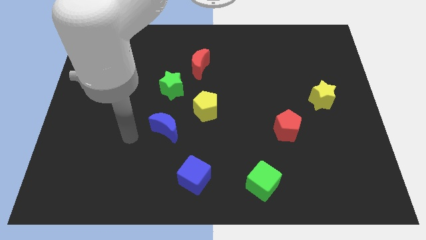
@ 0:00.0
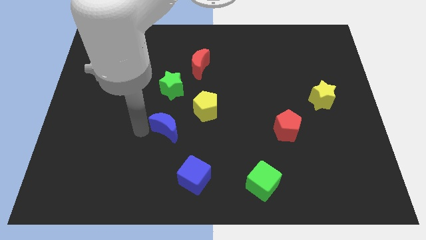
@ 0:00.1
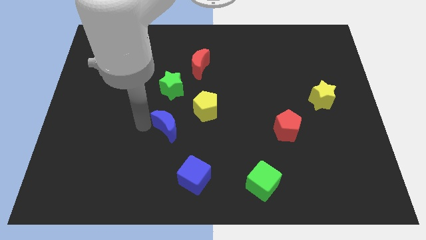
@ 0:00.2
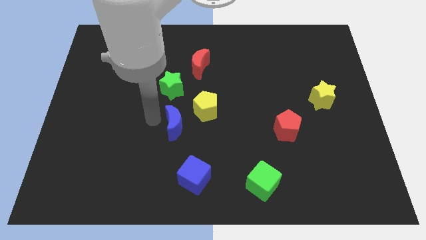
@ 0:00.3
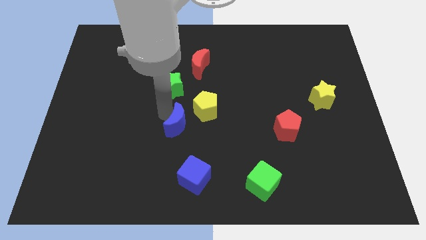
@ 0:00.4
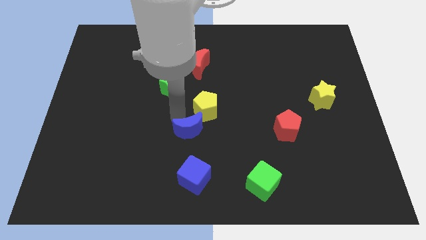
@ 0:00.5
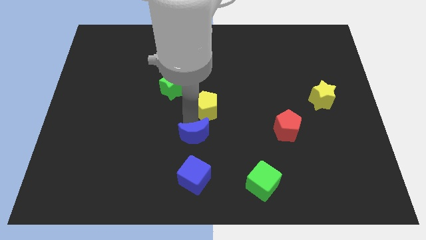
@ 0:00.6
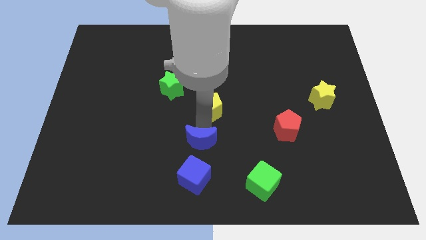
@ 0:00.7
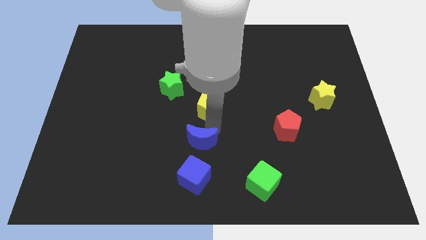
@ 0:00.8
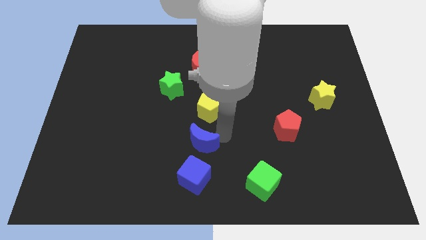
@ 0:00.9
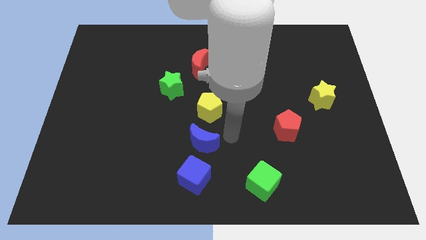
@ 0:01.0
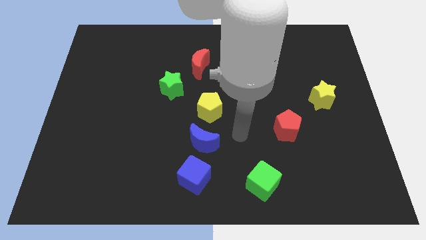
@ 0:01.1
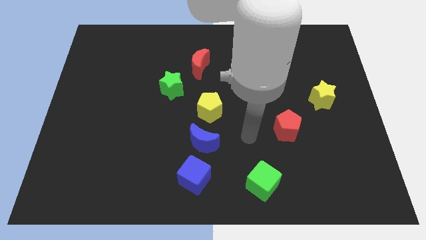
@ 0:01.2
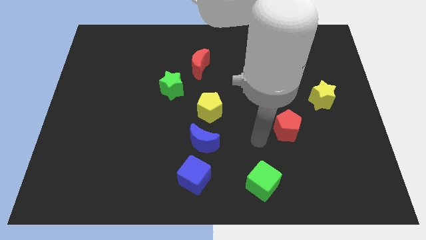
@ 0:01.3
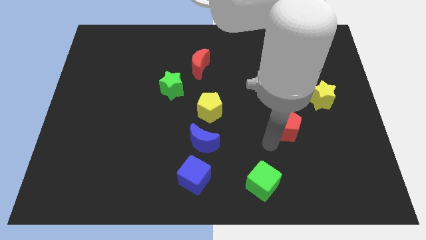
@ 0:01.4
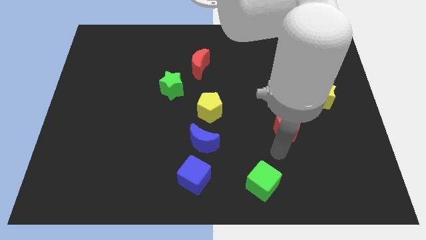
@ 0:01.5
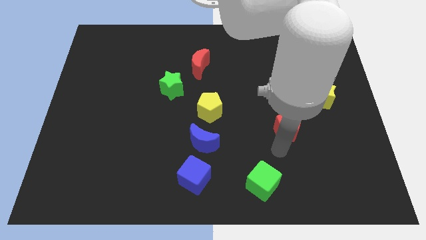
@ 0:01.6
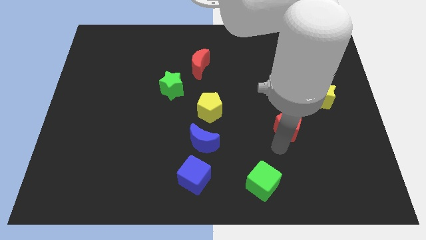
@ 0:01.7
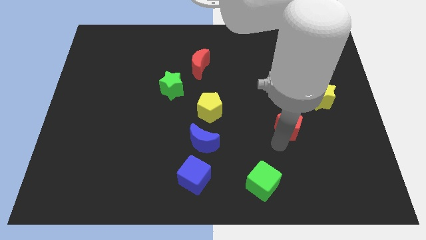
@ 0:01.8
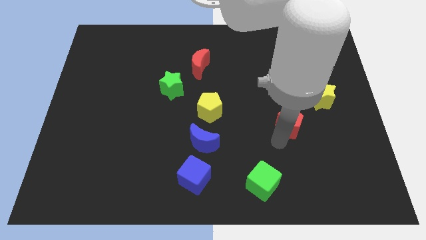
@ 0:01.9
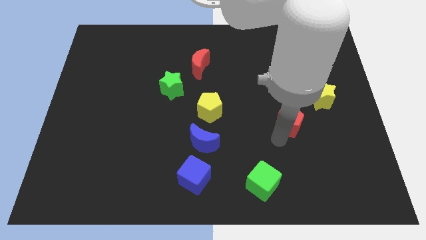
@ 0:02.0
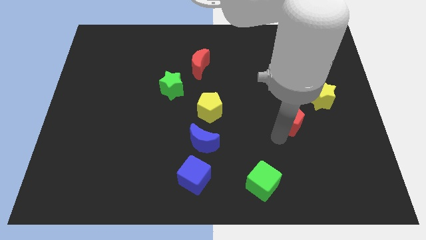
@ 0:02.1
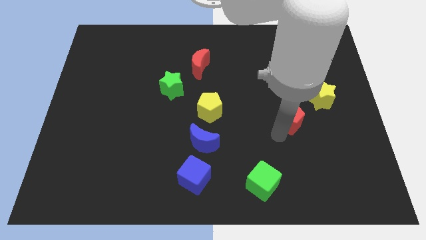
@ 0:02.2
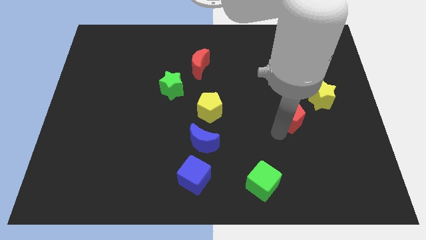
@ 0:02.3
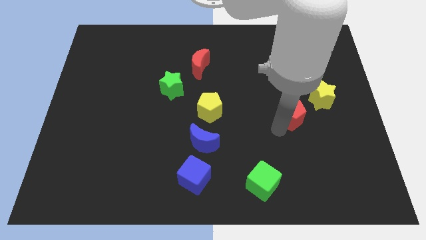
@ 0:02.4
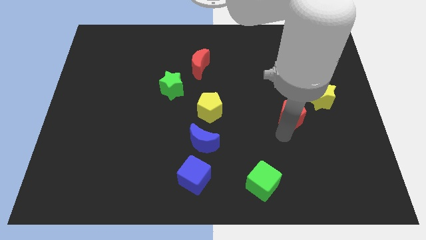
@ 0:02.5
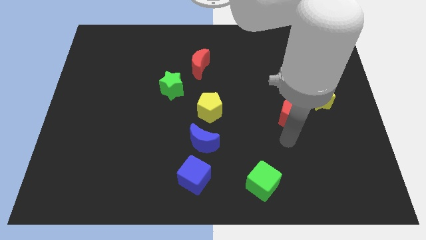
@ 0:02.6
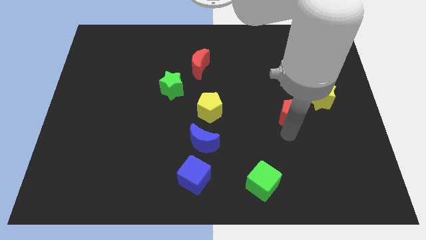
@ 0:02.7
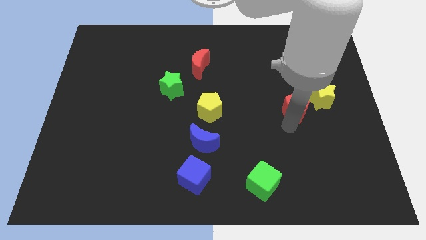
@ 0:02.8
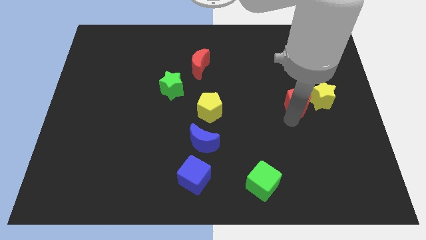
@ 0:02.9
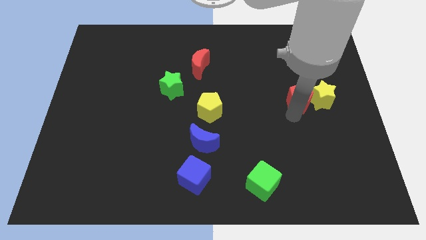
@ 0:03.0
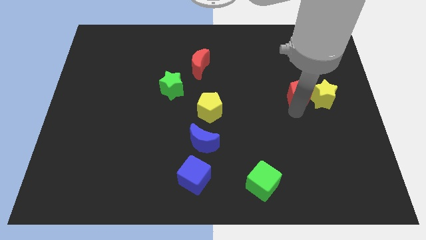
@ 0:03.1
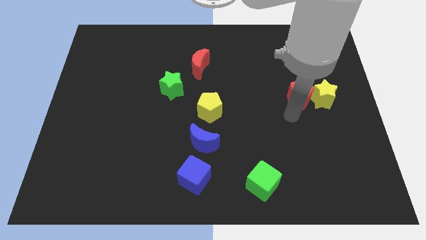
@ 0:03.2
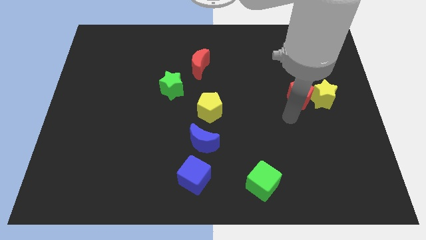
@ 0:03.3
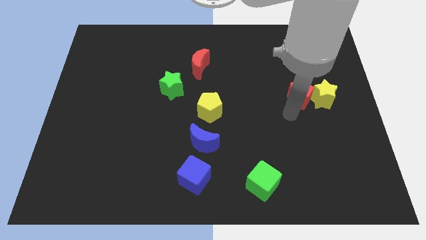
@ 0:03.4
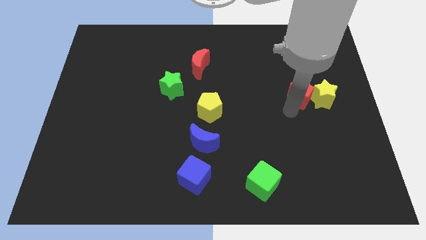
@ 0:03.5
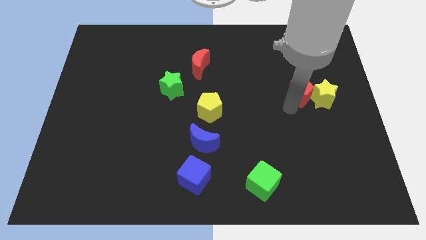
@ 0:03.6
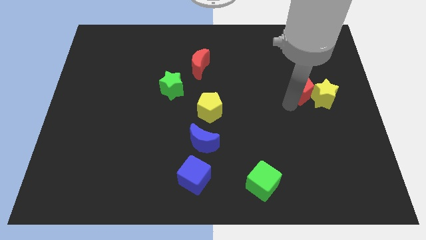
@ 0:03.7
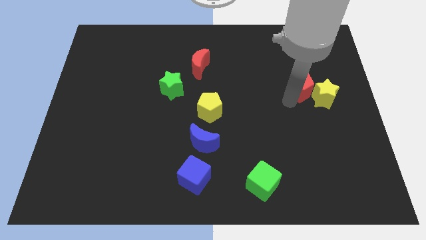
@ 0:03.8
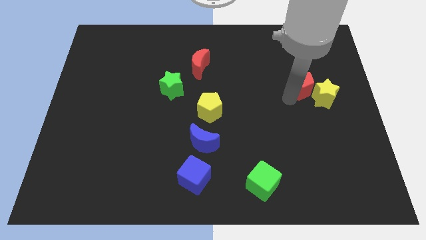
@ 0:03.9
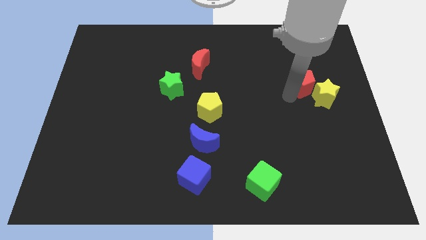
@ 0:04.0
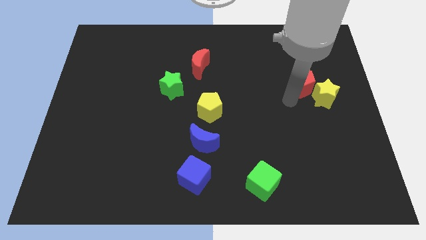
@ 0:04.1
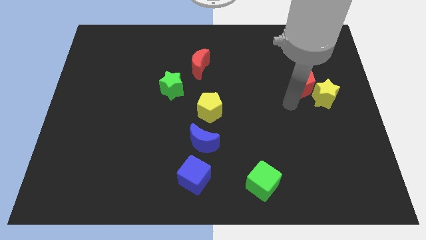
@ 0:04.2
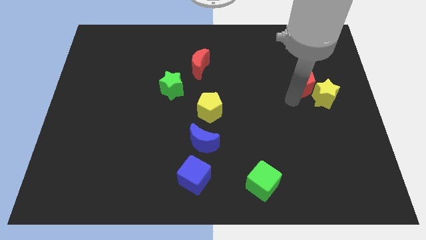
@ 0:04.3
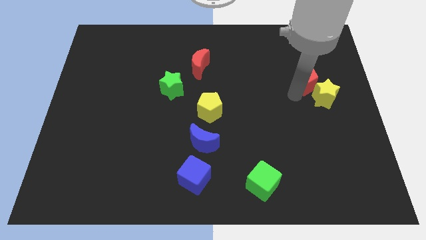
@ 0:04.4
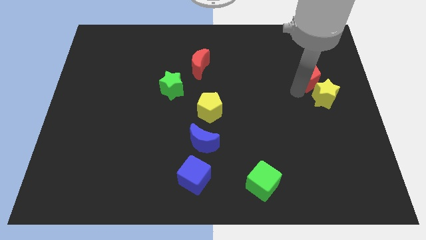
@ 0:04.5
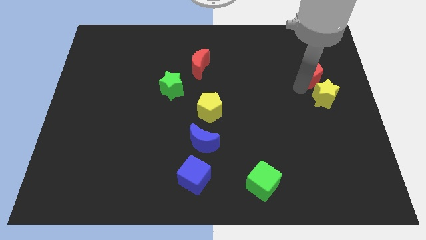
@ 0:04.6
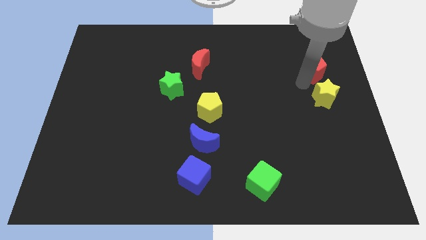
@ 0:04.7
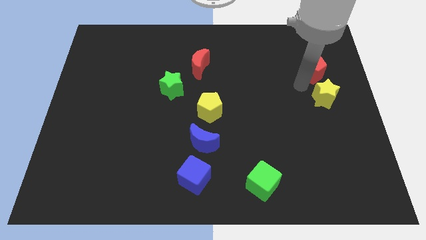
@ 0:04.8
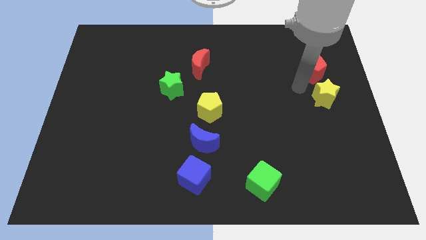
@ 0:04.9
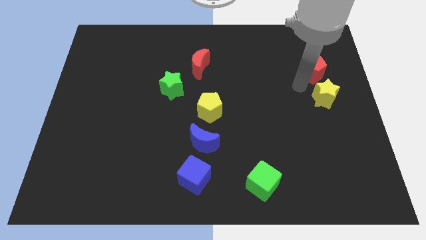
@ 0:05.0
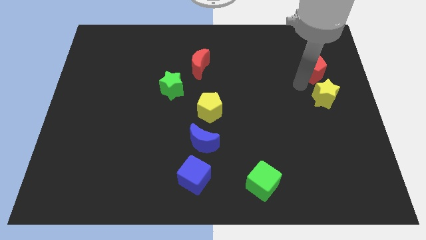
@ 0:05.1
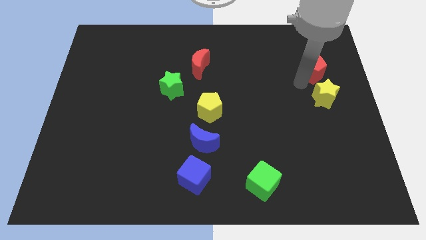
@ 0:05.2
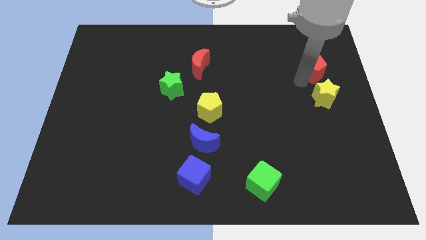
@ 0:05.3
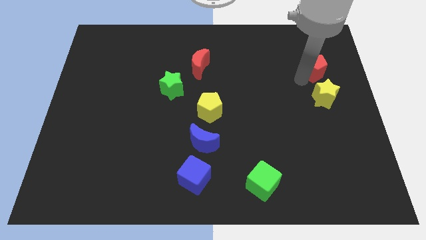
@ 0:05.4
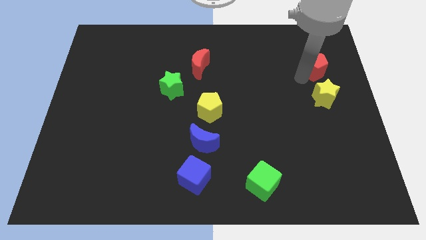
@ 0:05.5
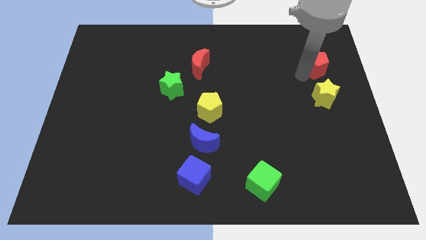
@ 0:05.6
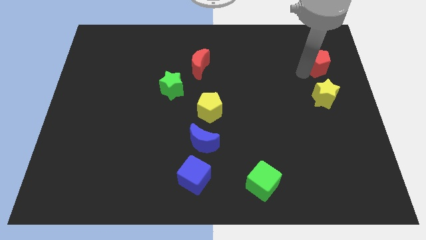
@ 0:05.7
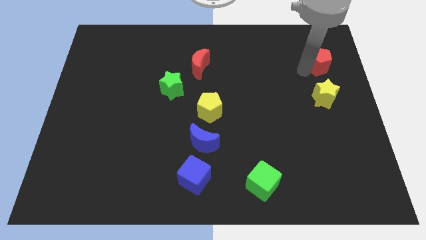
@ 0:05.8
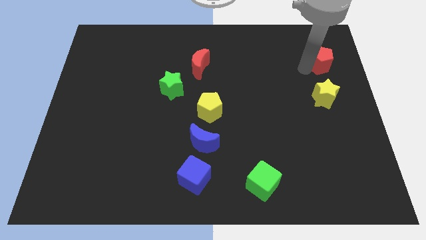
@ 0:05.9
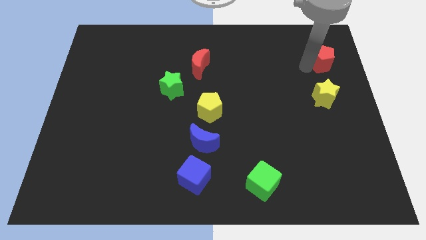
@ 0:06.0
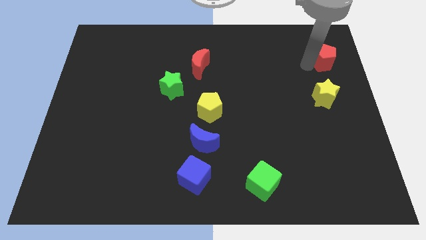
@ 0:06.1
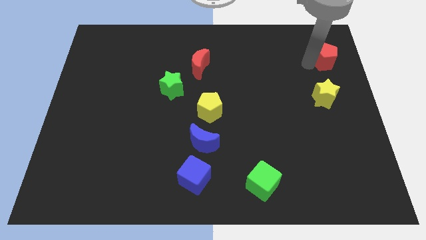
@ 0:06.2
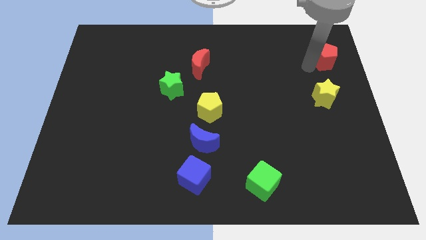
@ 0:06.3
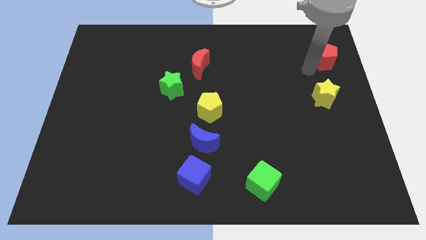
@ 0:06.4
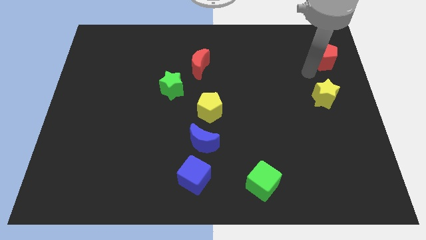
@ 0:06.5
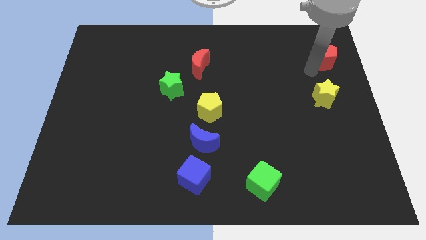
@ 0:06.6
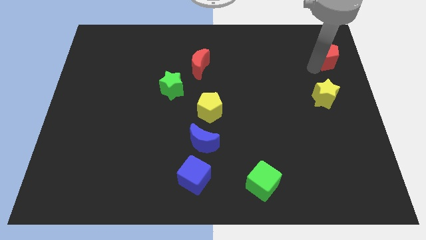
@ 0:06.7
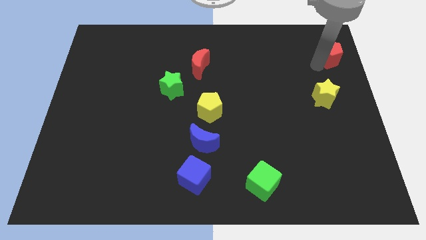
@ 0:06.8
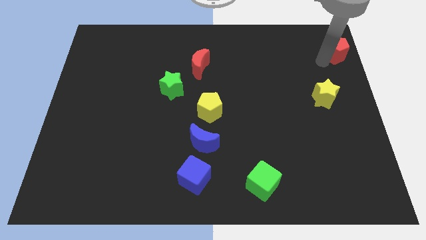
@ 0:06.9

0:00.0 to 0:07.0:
push the red pentagon to the top right corner
